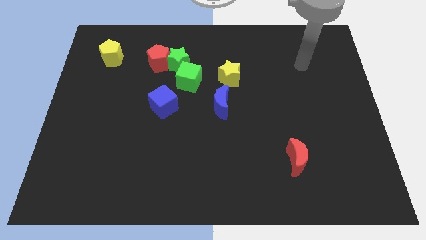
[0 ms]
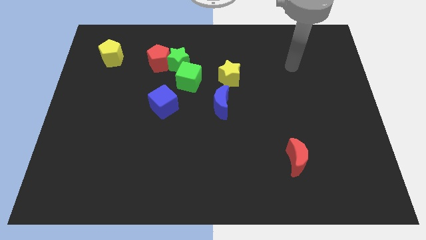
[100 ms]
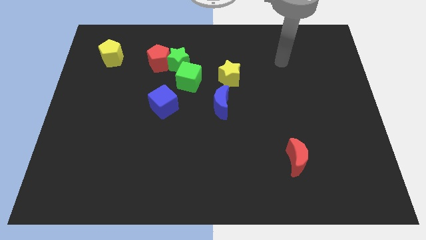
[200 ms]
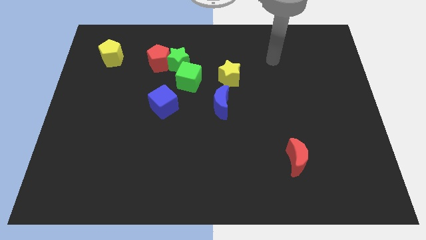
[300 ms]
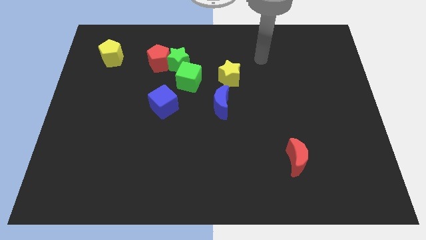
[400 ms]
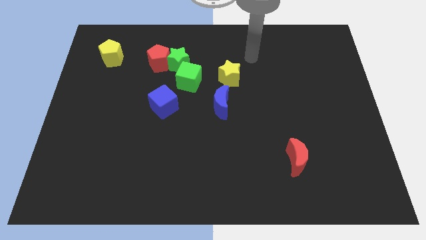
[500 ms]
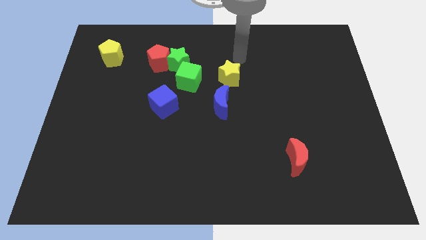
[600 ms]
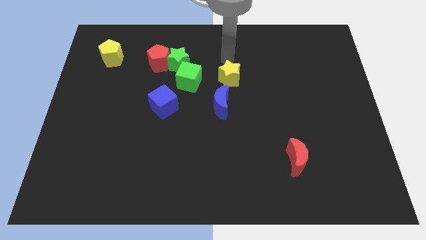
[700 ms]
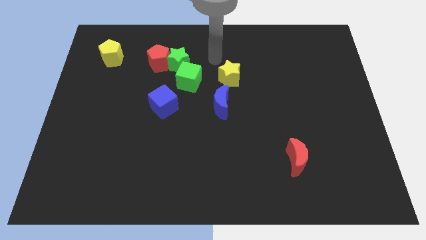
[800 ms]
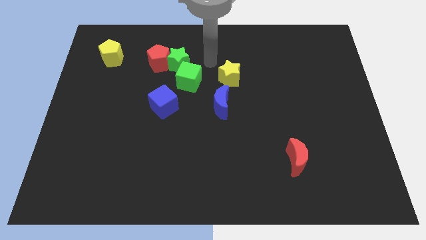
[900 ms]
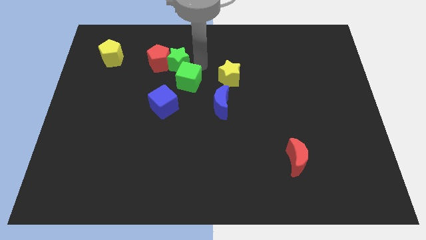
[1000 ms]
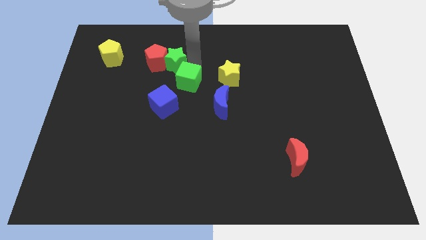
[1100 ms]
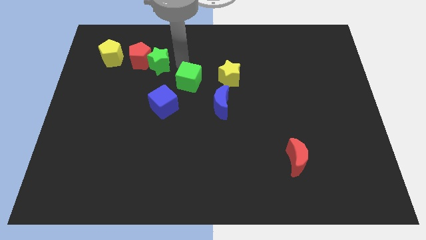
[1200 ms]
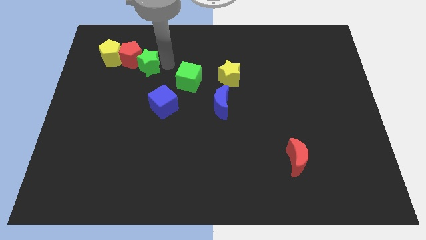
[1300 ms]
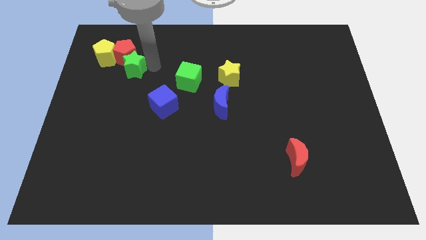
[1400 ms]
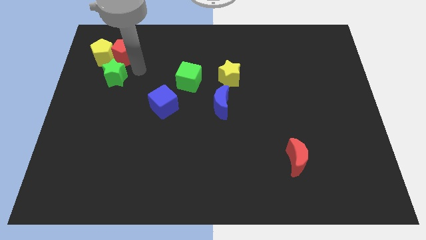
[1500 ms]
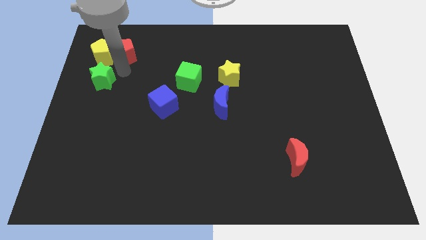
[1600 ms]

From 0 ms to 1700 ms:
move the red pentagon away from the green star

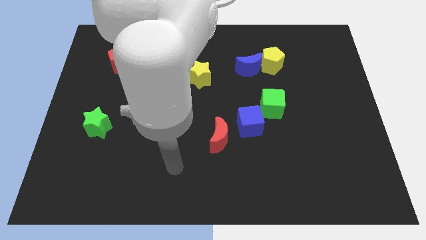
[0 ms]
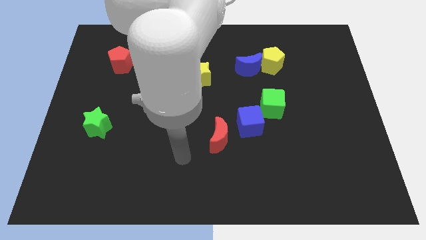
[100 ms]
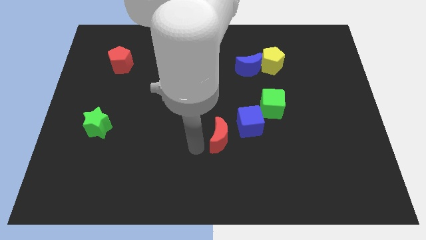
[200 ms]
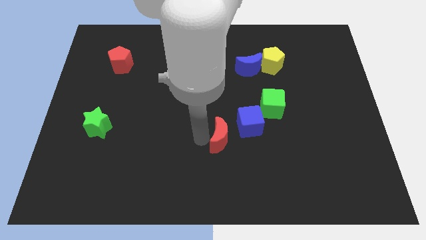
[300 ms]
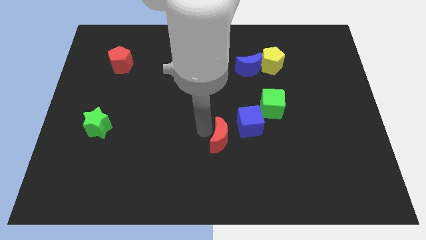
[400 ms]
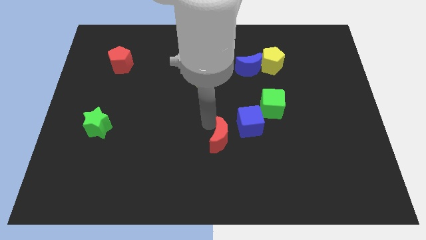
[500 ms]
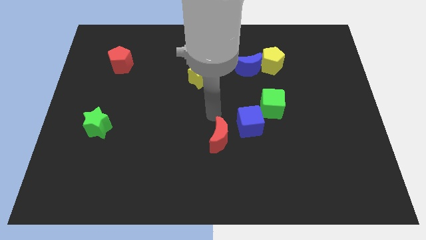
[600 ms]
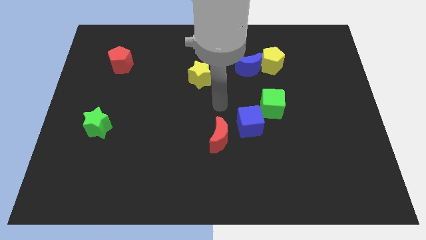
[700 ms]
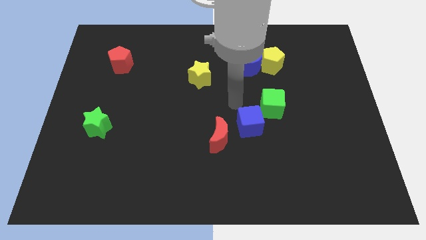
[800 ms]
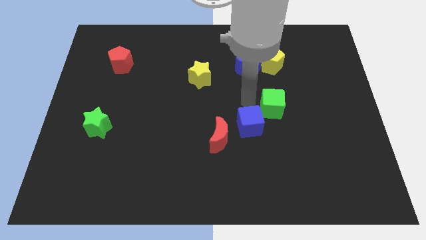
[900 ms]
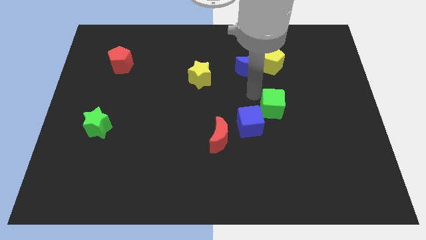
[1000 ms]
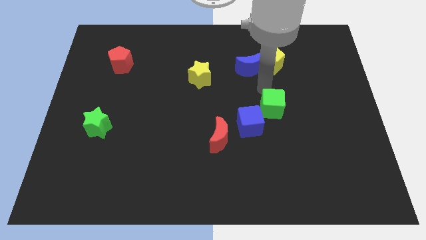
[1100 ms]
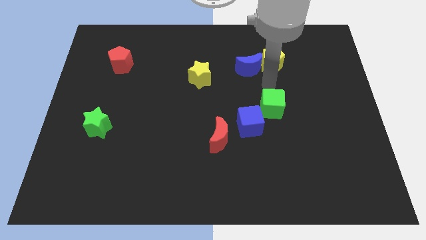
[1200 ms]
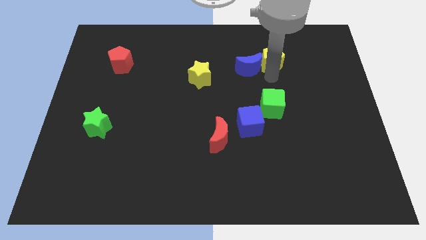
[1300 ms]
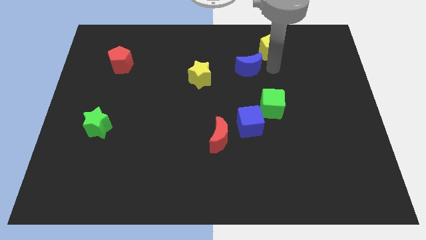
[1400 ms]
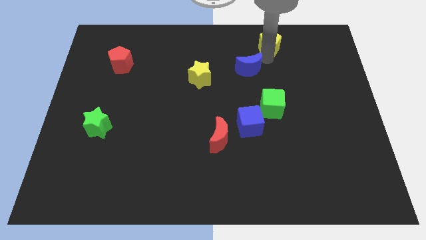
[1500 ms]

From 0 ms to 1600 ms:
separate the blue moon from the yellow pentagon

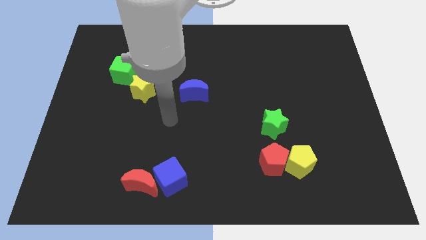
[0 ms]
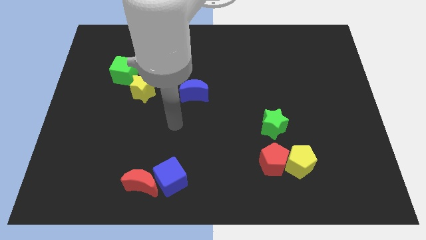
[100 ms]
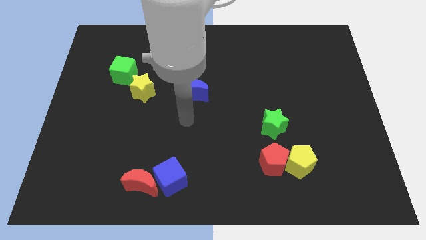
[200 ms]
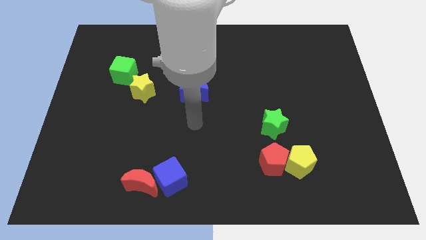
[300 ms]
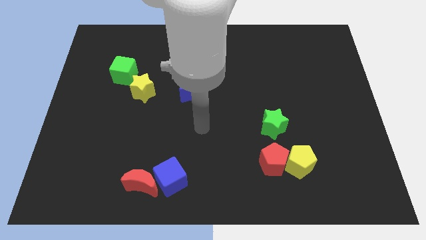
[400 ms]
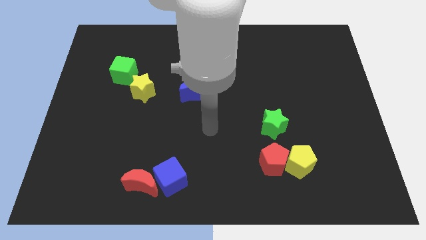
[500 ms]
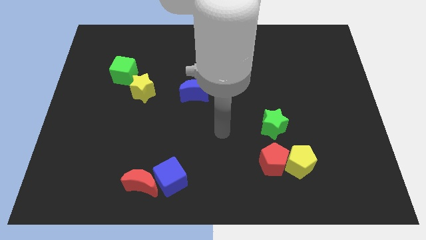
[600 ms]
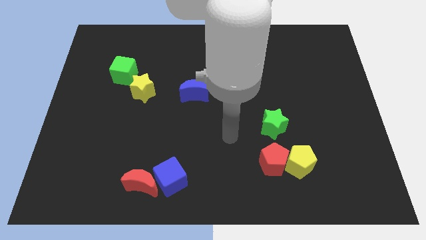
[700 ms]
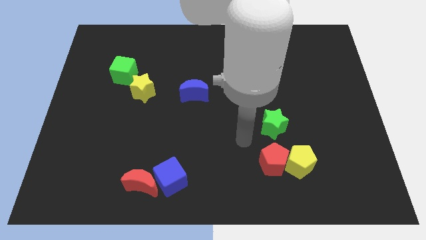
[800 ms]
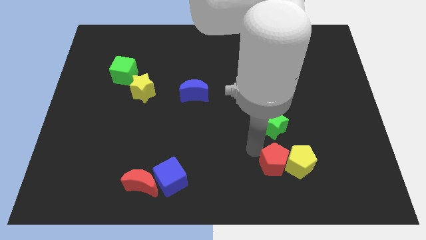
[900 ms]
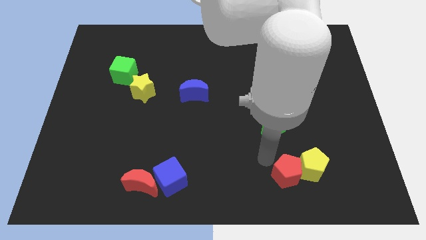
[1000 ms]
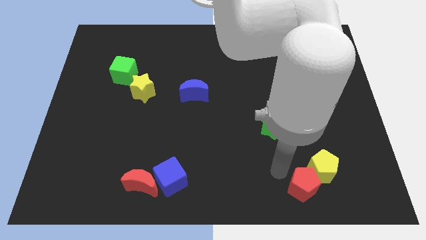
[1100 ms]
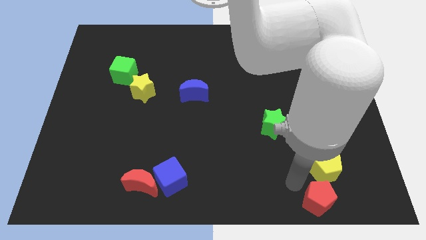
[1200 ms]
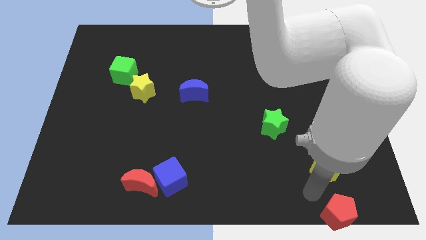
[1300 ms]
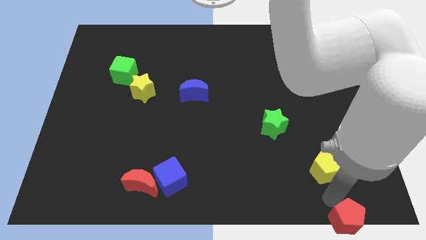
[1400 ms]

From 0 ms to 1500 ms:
move the yellow pentagon away from the red pentagon

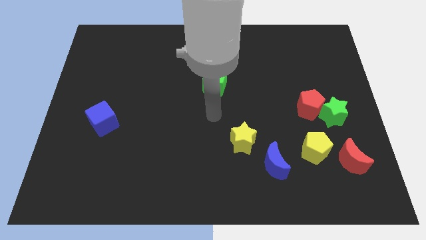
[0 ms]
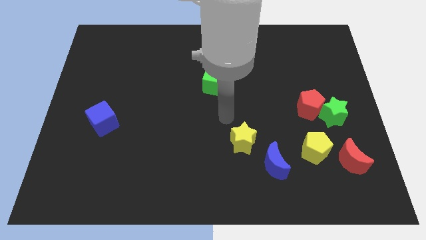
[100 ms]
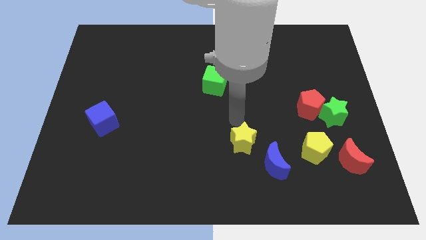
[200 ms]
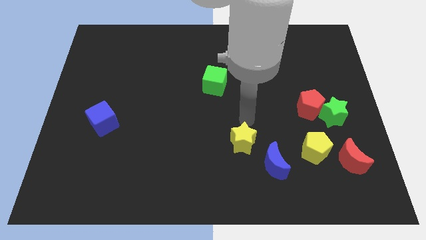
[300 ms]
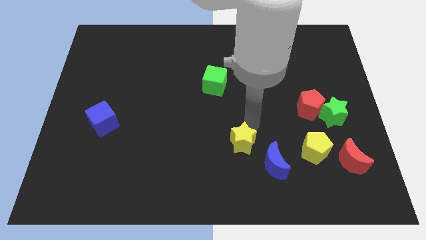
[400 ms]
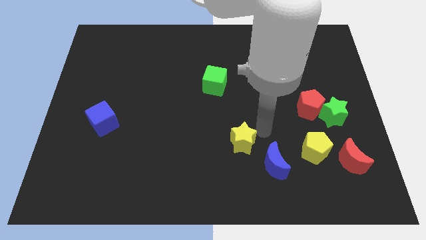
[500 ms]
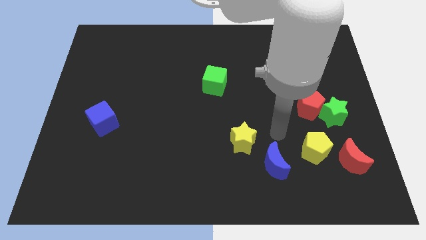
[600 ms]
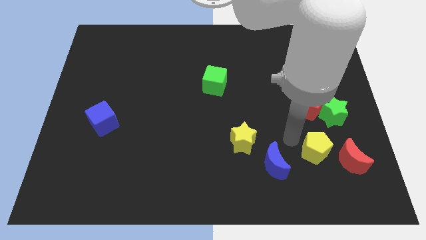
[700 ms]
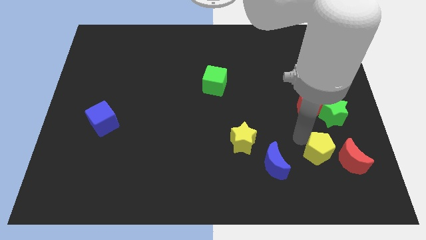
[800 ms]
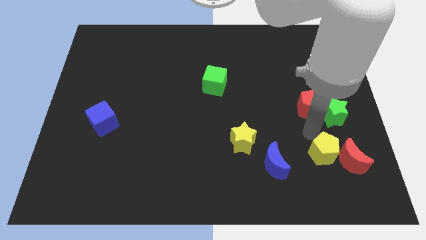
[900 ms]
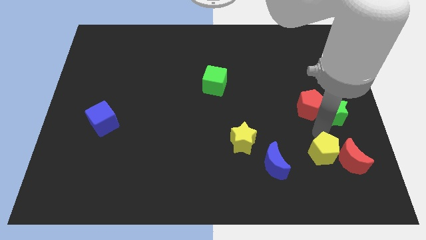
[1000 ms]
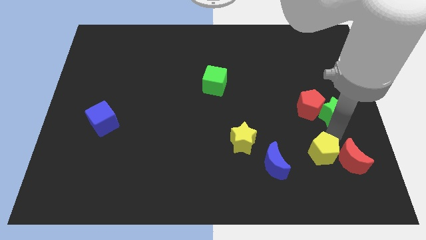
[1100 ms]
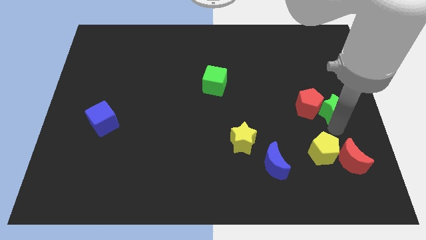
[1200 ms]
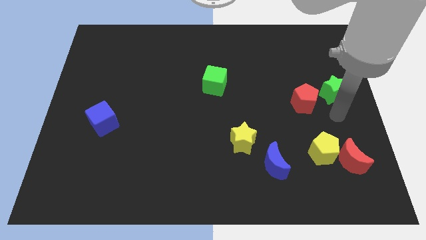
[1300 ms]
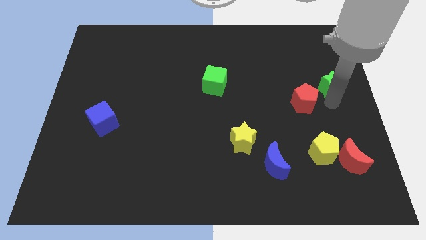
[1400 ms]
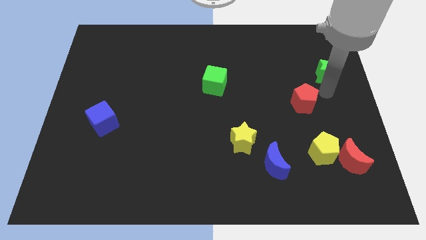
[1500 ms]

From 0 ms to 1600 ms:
pull the red pentagon apart from the green star

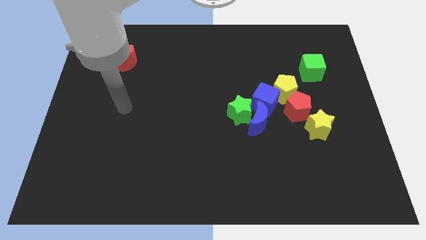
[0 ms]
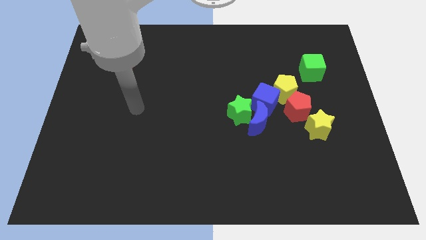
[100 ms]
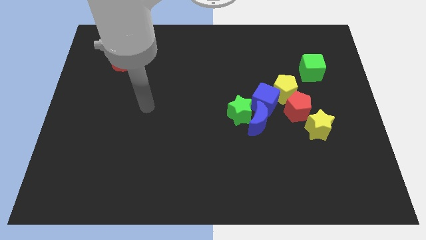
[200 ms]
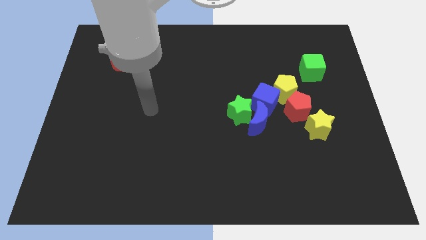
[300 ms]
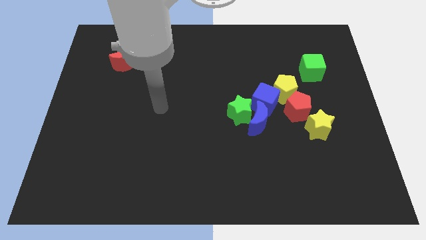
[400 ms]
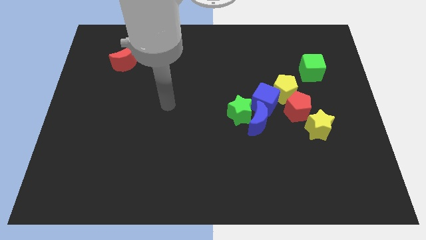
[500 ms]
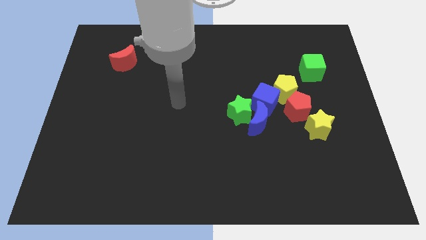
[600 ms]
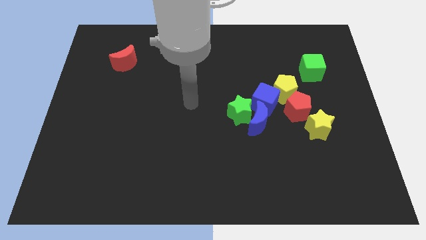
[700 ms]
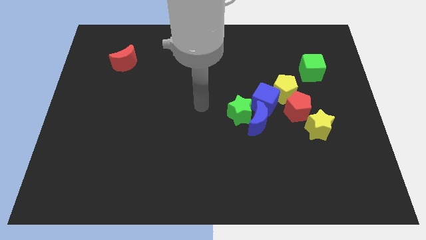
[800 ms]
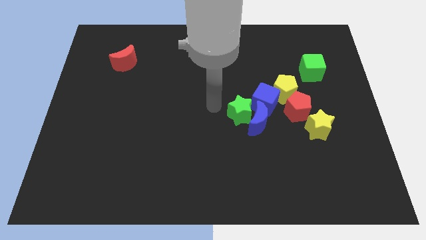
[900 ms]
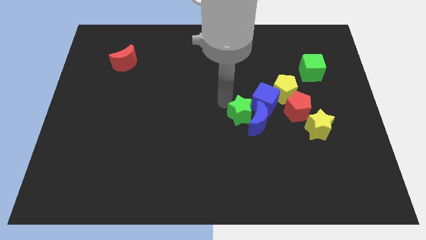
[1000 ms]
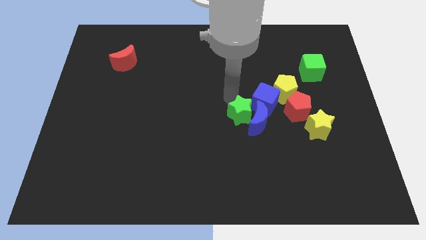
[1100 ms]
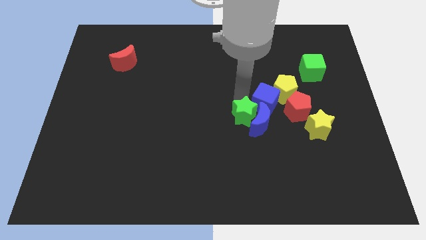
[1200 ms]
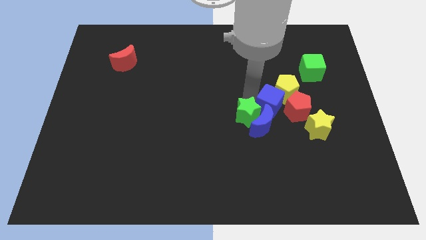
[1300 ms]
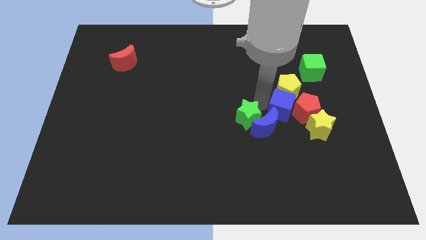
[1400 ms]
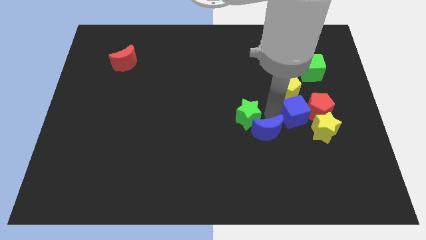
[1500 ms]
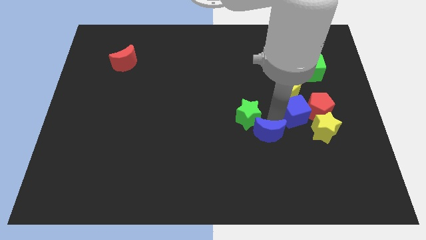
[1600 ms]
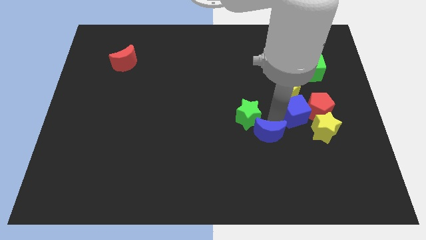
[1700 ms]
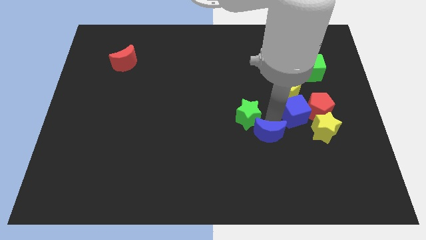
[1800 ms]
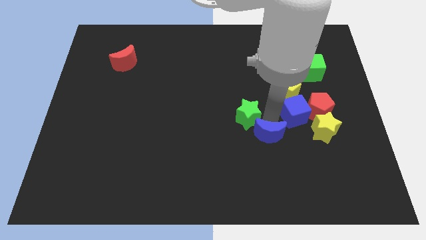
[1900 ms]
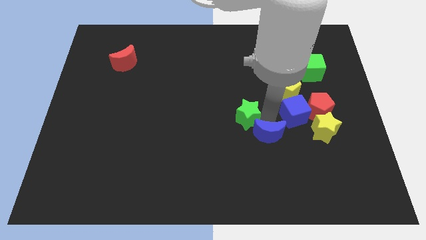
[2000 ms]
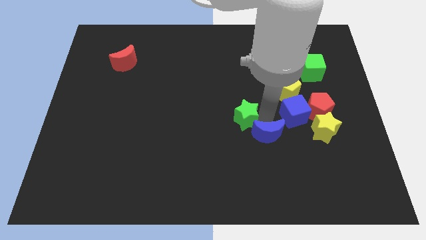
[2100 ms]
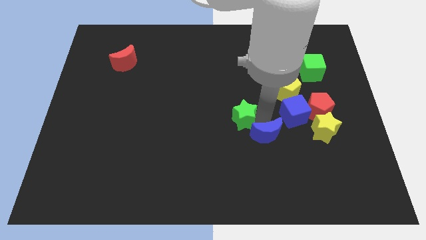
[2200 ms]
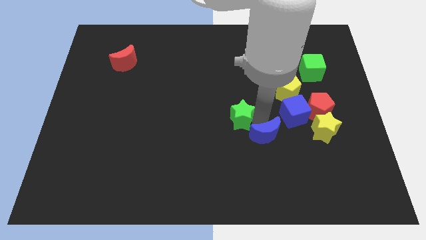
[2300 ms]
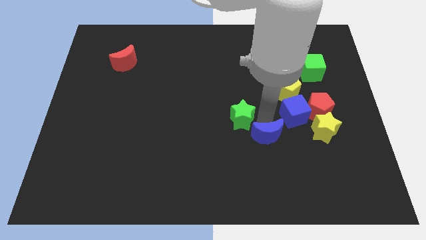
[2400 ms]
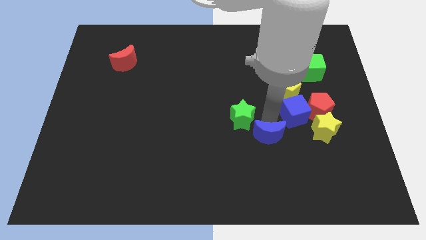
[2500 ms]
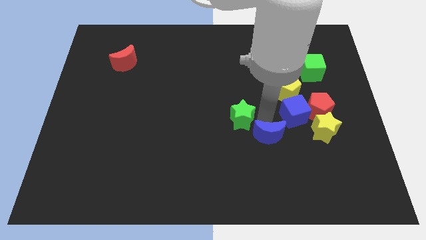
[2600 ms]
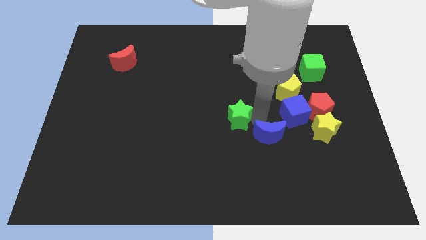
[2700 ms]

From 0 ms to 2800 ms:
move the green star away from the blue moon and blue cube
